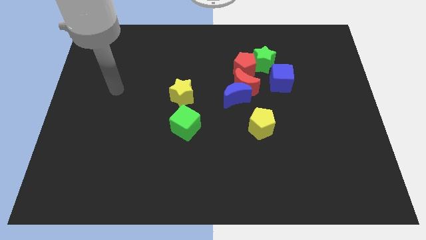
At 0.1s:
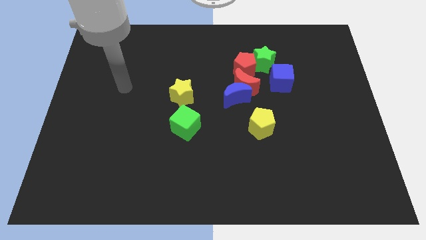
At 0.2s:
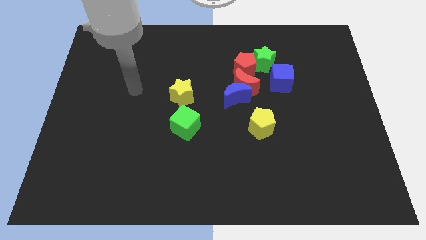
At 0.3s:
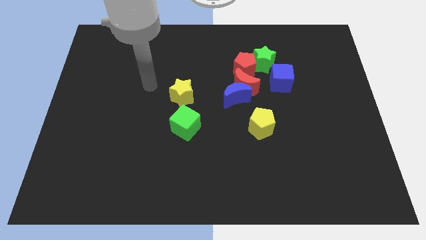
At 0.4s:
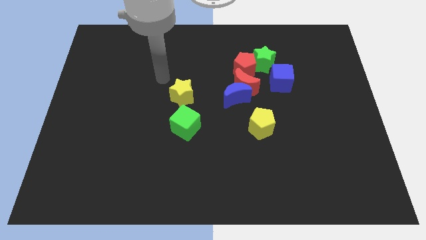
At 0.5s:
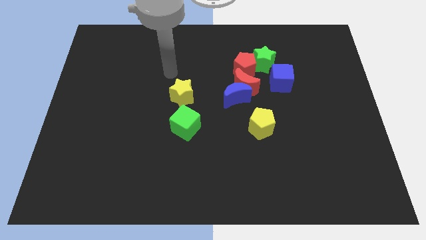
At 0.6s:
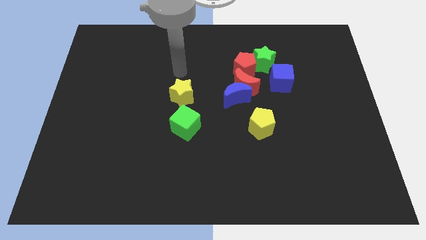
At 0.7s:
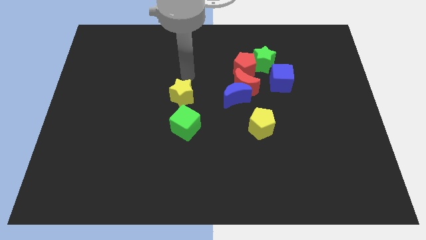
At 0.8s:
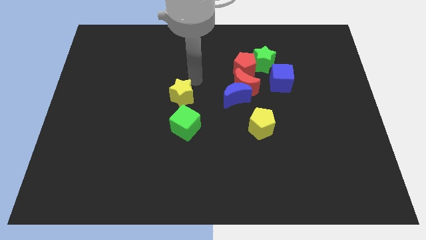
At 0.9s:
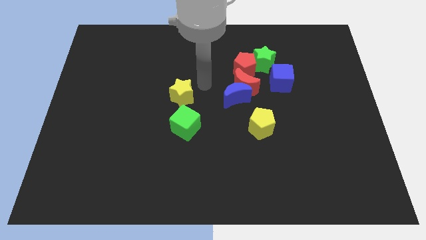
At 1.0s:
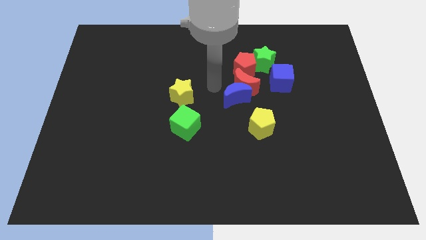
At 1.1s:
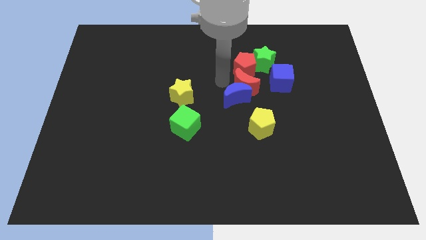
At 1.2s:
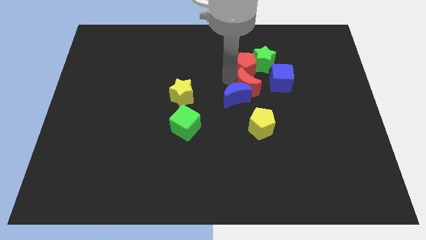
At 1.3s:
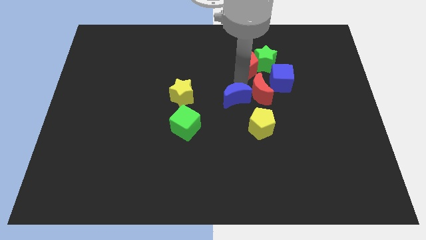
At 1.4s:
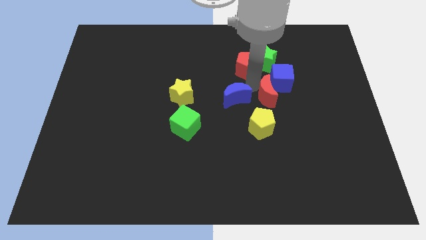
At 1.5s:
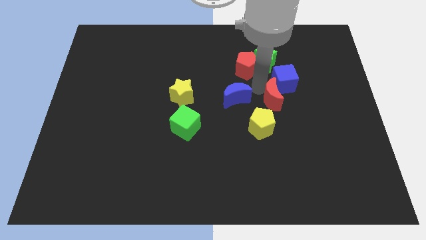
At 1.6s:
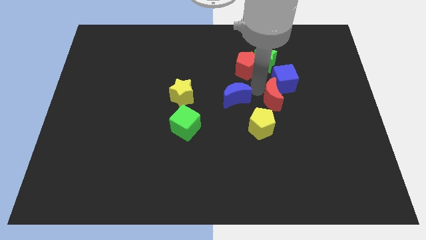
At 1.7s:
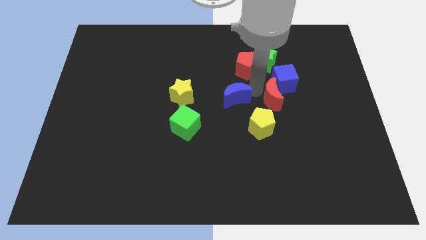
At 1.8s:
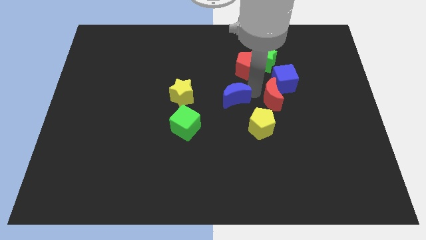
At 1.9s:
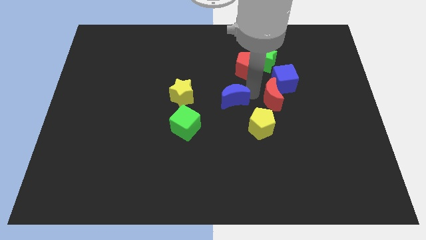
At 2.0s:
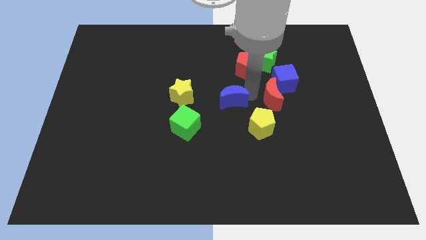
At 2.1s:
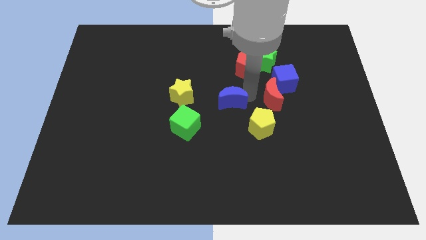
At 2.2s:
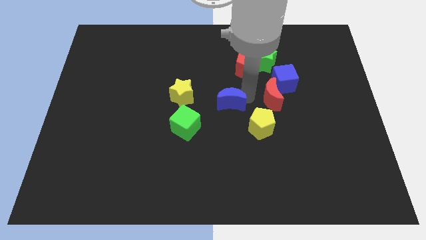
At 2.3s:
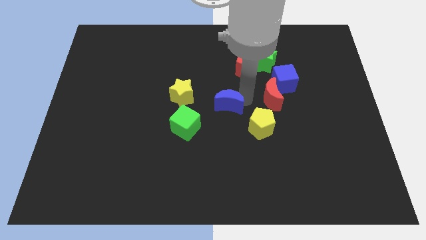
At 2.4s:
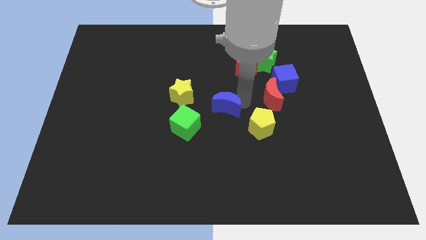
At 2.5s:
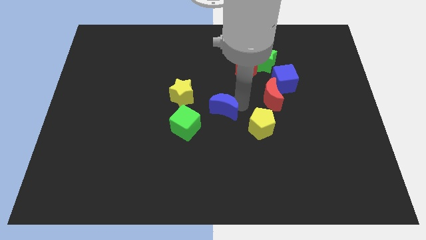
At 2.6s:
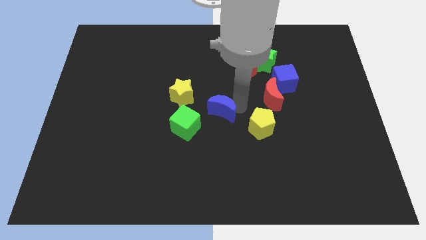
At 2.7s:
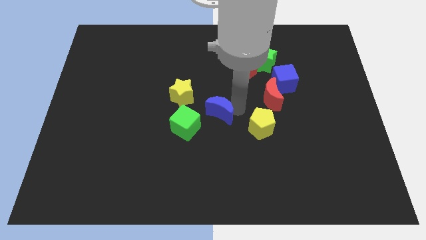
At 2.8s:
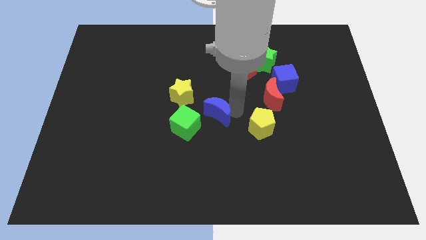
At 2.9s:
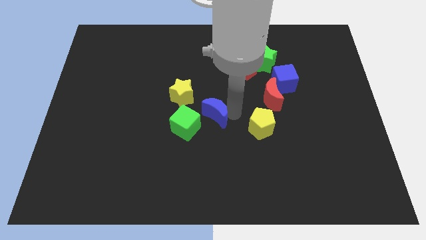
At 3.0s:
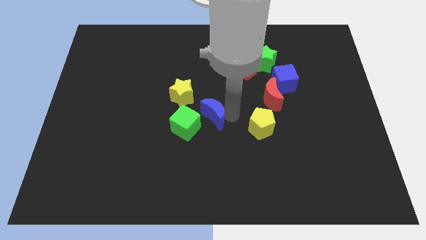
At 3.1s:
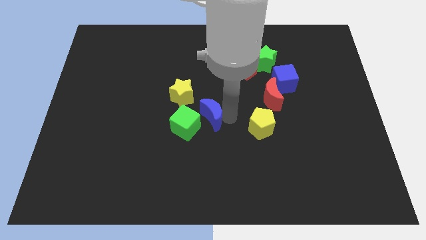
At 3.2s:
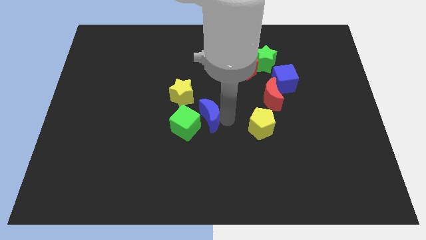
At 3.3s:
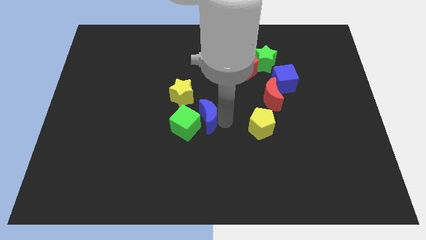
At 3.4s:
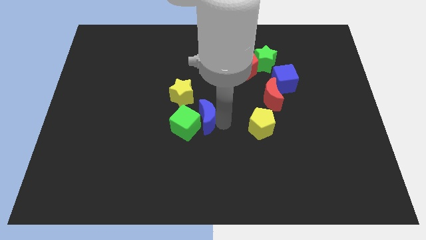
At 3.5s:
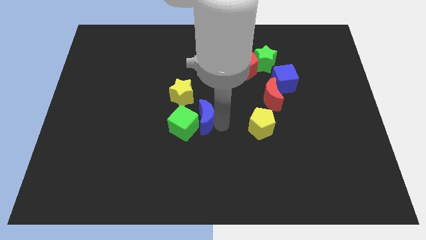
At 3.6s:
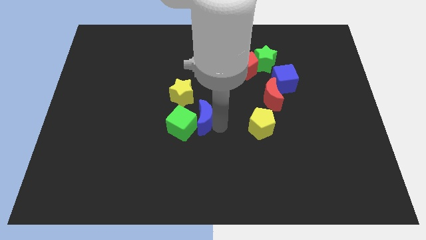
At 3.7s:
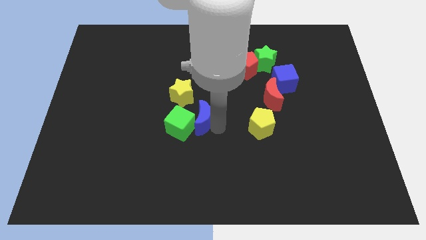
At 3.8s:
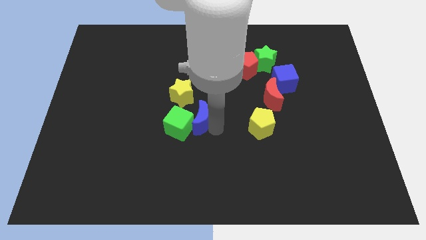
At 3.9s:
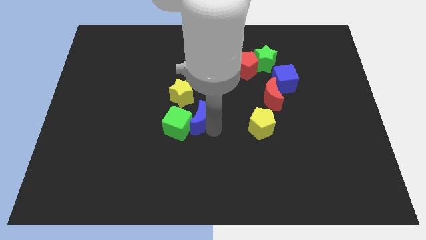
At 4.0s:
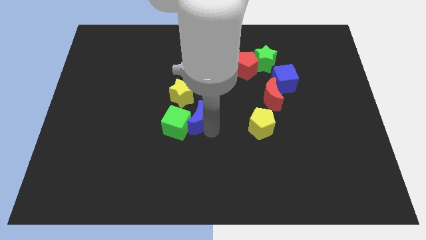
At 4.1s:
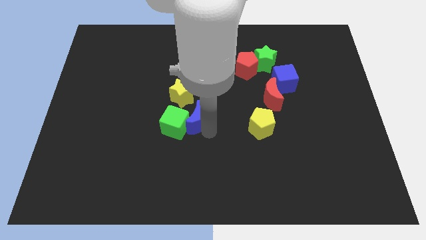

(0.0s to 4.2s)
push the blue moon left a little bit

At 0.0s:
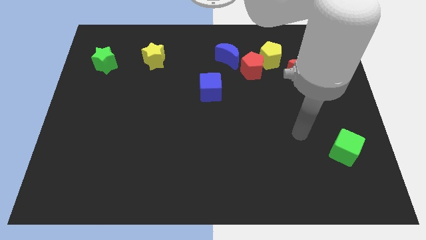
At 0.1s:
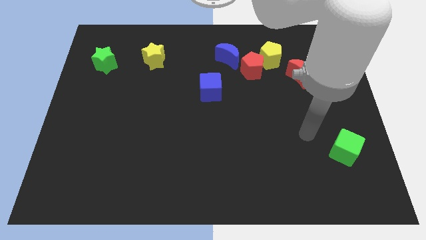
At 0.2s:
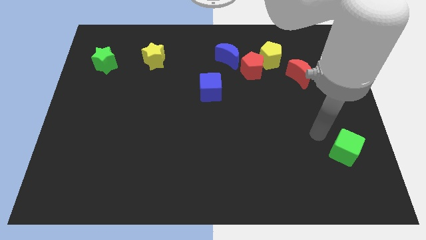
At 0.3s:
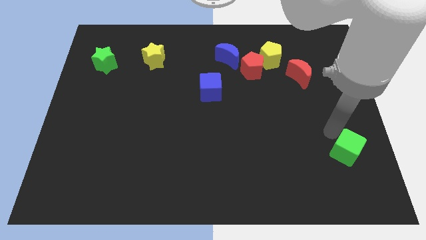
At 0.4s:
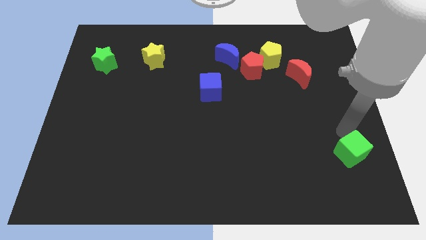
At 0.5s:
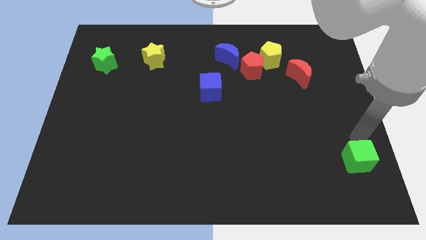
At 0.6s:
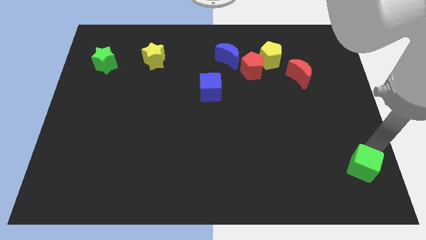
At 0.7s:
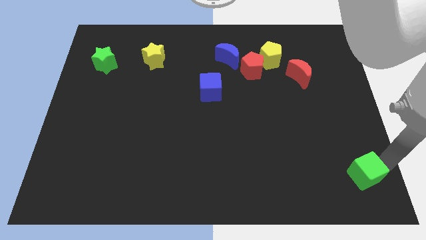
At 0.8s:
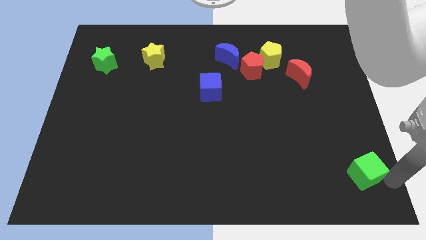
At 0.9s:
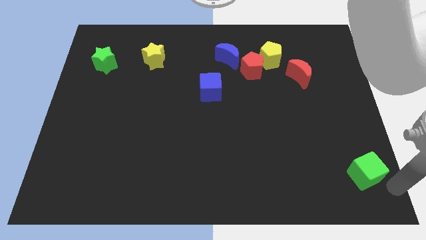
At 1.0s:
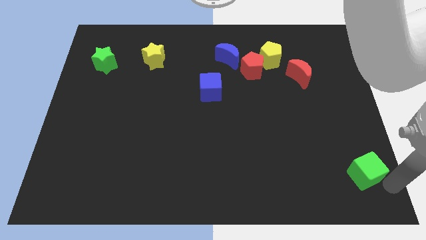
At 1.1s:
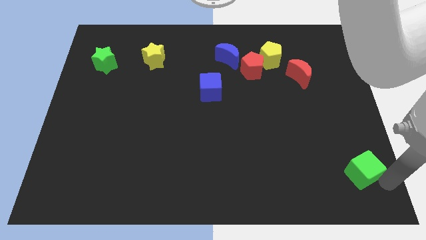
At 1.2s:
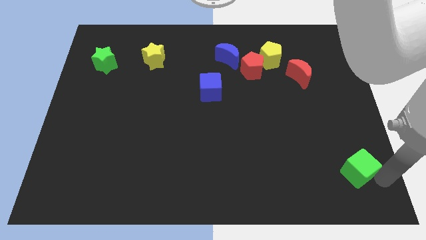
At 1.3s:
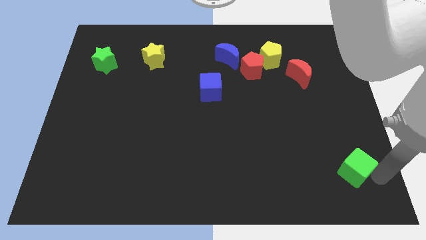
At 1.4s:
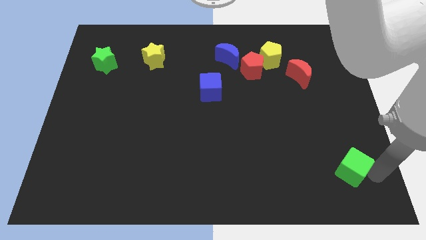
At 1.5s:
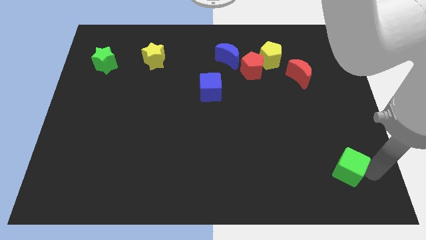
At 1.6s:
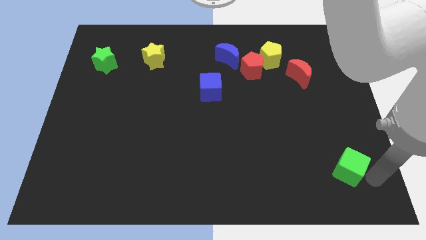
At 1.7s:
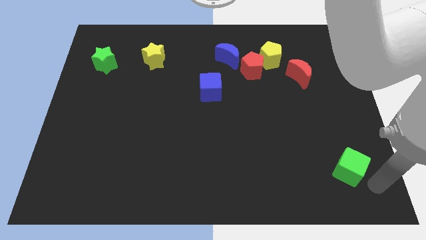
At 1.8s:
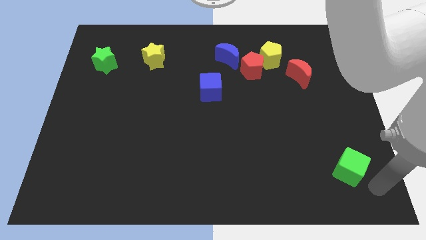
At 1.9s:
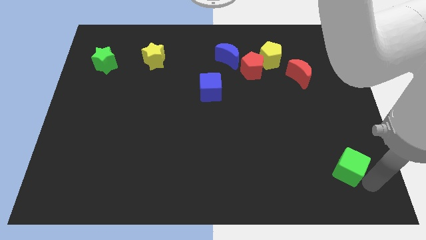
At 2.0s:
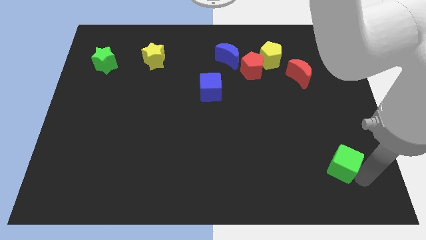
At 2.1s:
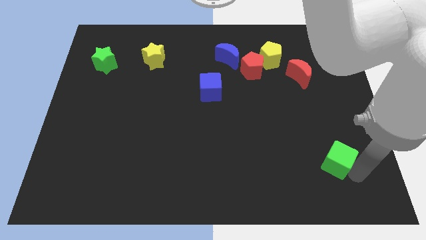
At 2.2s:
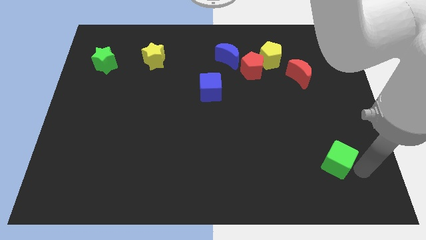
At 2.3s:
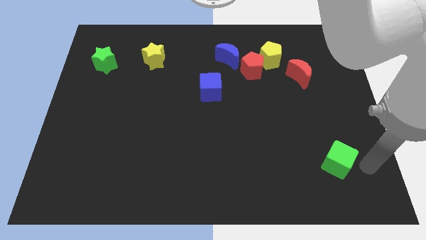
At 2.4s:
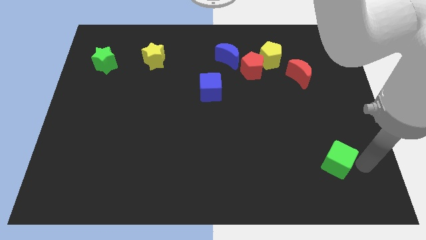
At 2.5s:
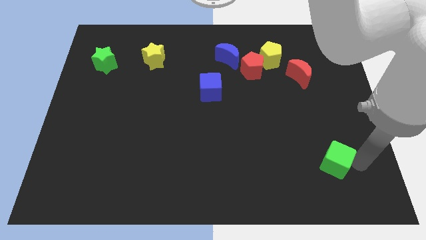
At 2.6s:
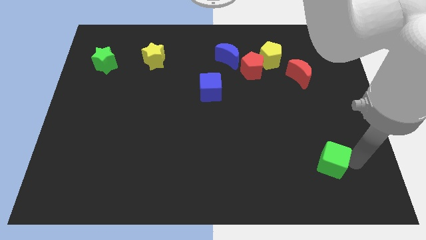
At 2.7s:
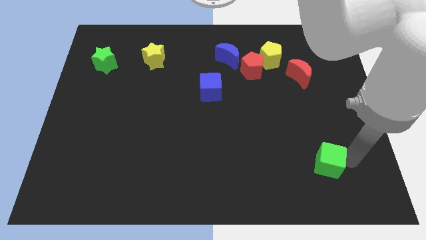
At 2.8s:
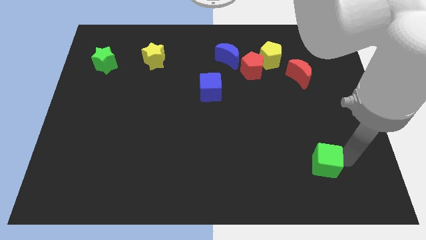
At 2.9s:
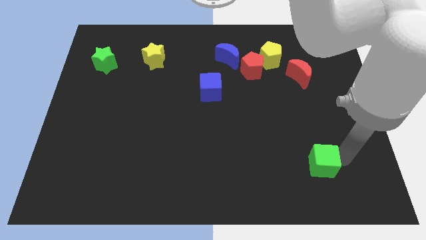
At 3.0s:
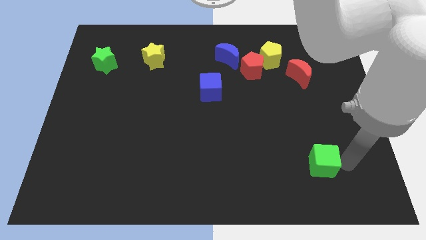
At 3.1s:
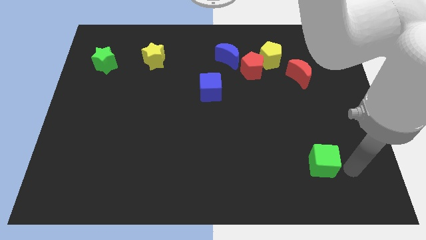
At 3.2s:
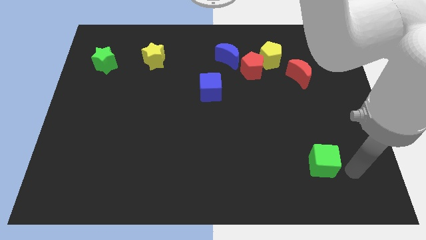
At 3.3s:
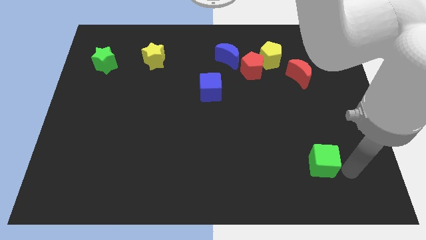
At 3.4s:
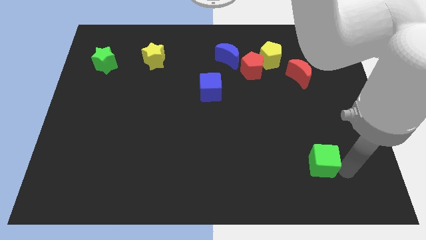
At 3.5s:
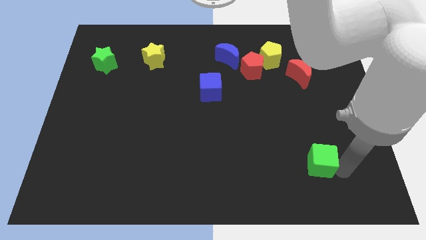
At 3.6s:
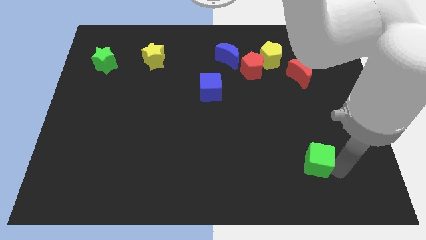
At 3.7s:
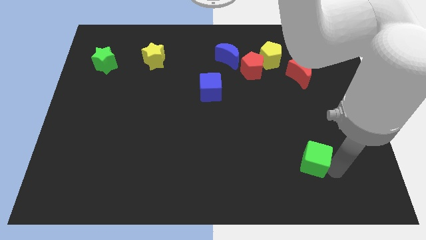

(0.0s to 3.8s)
push the green cube left a little
